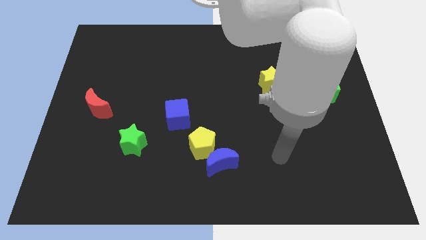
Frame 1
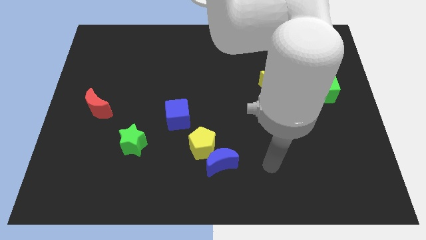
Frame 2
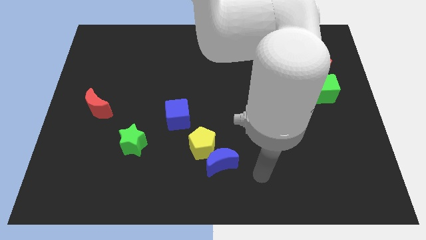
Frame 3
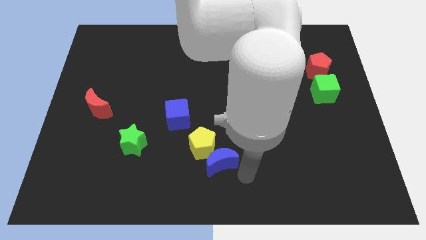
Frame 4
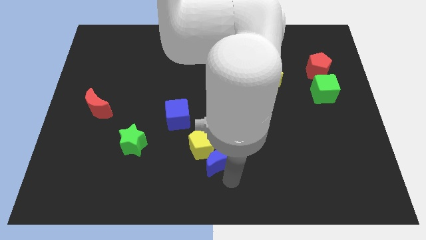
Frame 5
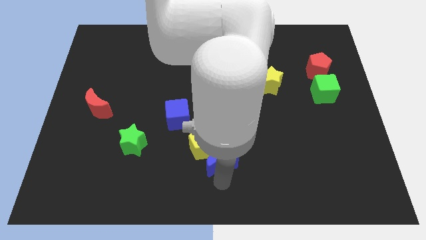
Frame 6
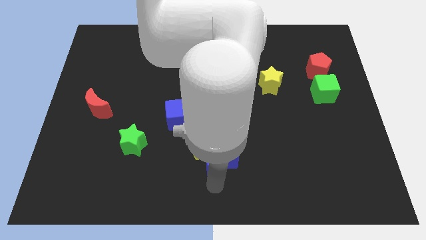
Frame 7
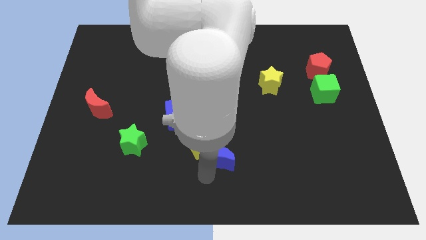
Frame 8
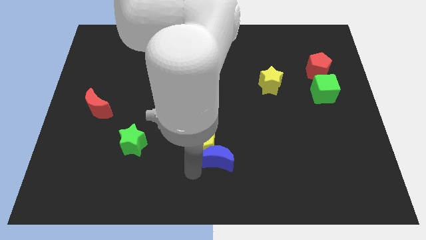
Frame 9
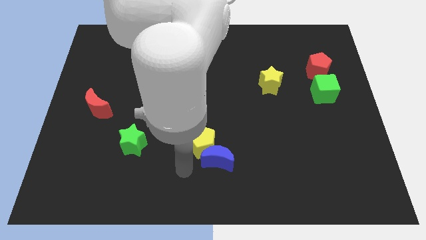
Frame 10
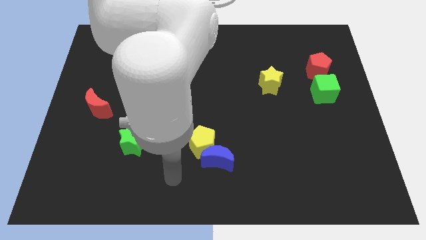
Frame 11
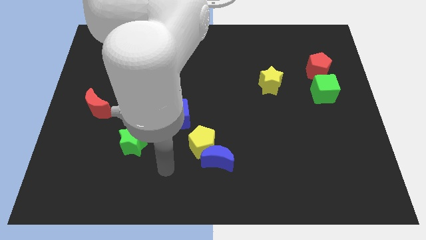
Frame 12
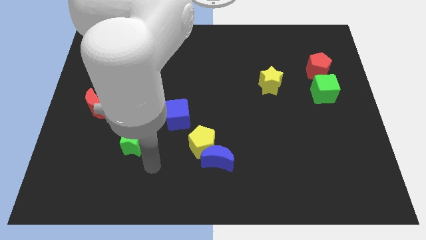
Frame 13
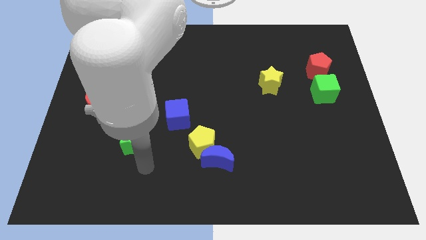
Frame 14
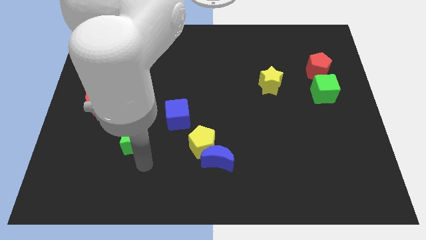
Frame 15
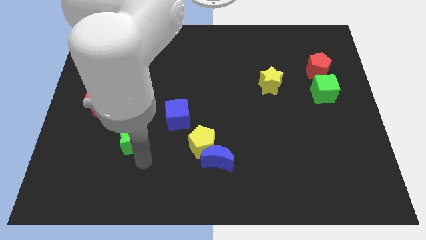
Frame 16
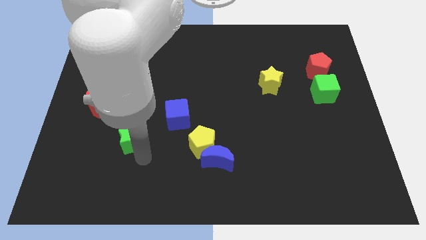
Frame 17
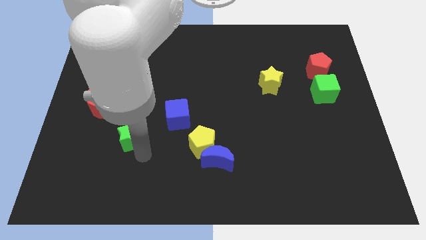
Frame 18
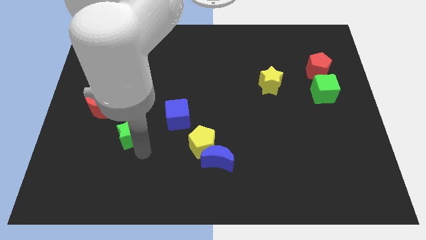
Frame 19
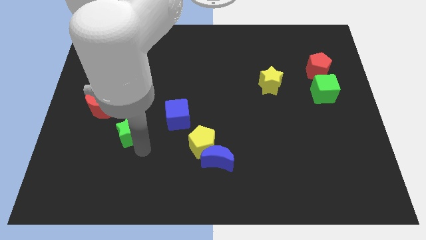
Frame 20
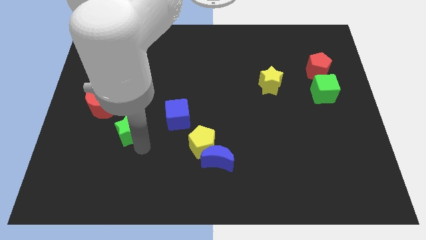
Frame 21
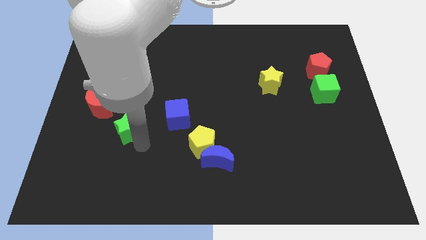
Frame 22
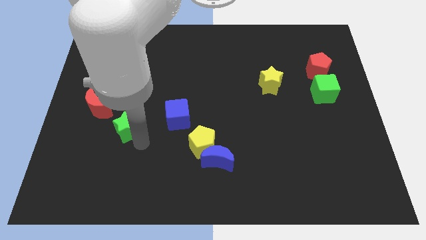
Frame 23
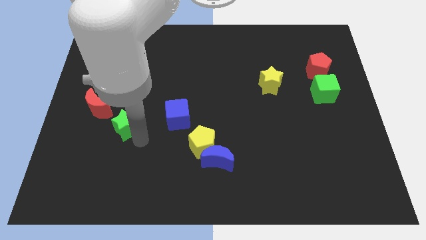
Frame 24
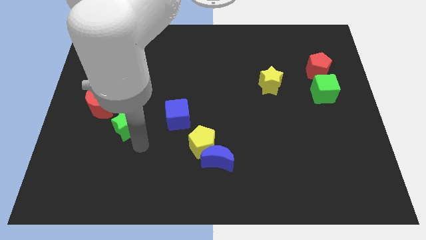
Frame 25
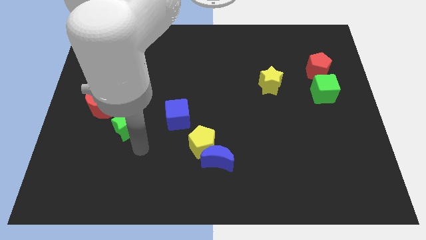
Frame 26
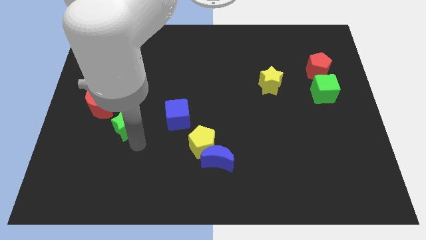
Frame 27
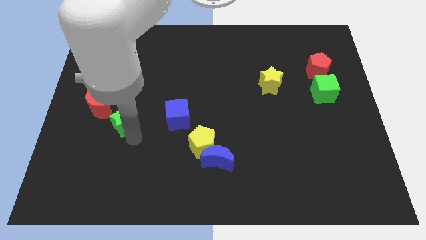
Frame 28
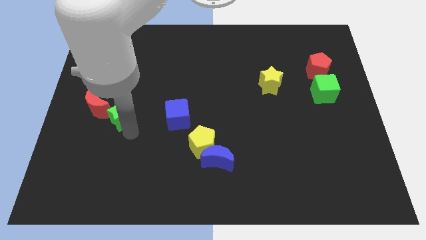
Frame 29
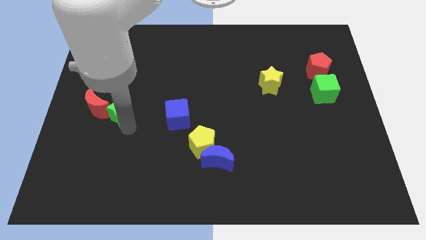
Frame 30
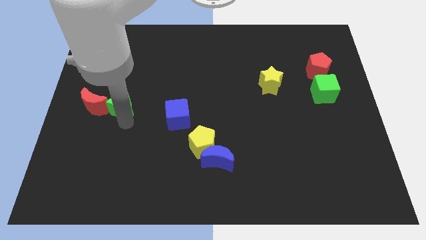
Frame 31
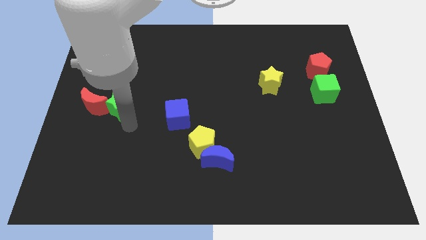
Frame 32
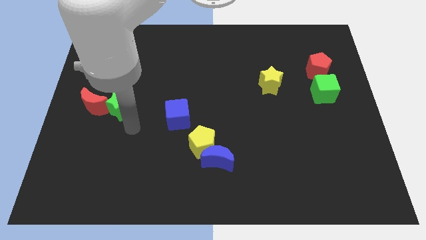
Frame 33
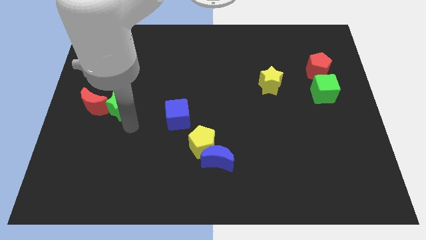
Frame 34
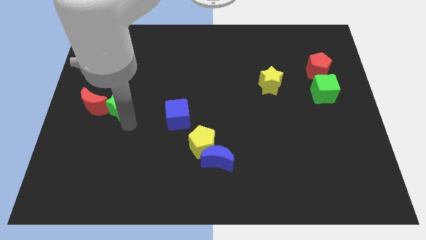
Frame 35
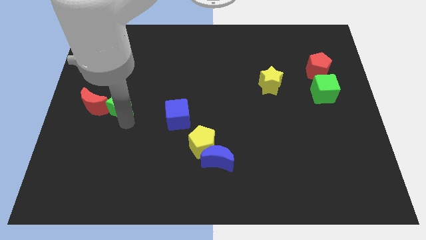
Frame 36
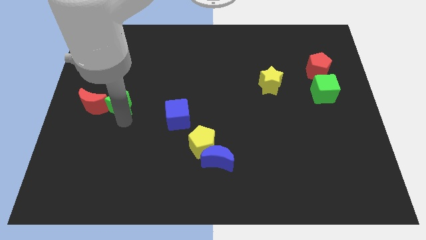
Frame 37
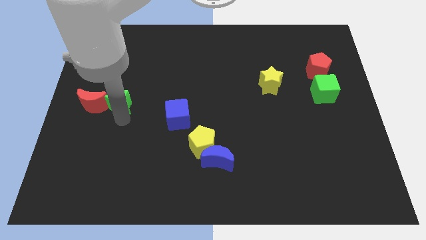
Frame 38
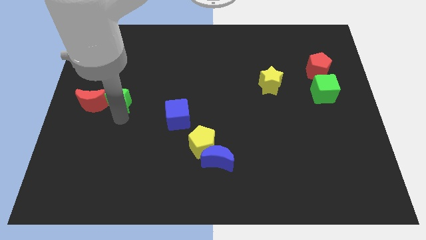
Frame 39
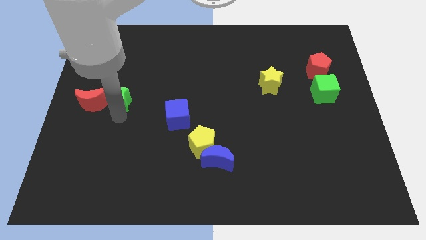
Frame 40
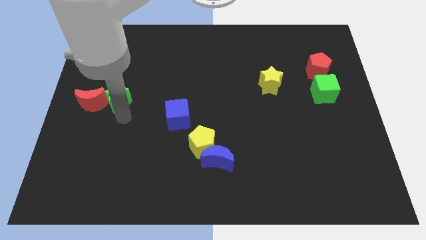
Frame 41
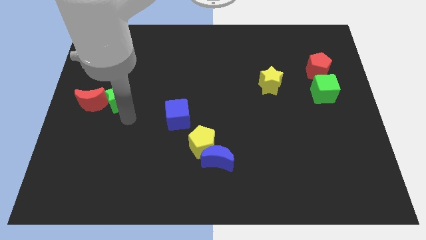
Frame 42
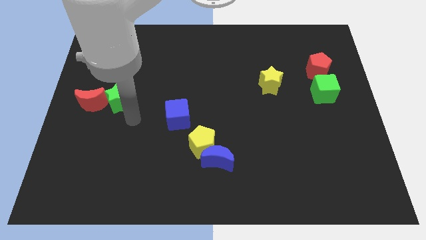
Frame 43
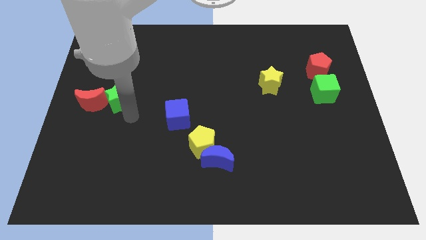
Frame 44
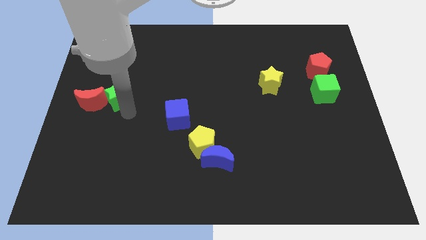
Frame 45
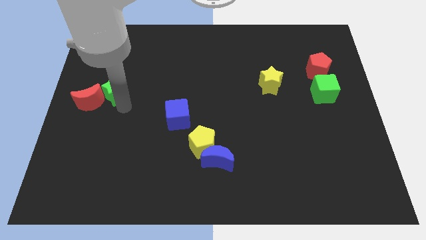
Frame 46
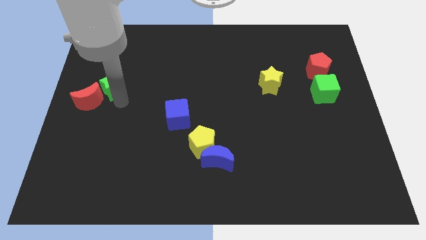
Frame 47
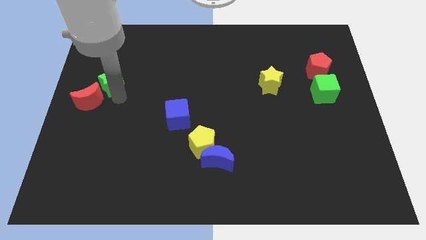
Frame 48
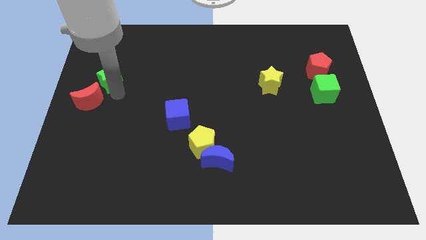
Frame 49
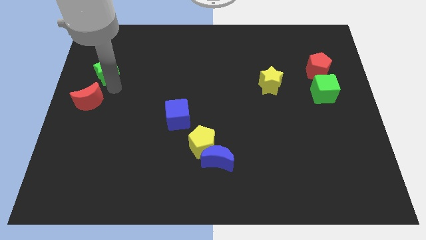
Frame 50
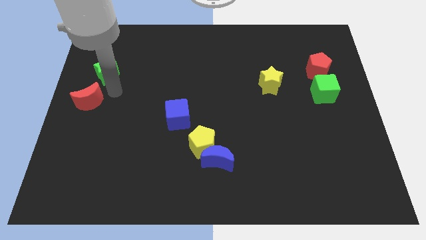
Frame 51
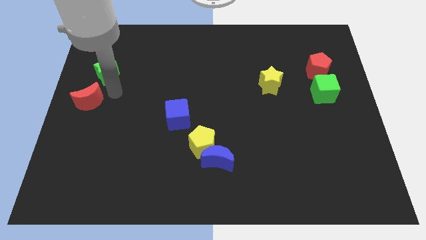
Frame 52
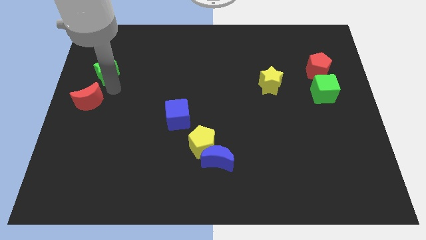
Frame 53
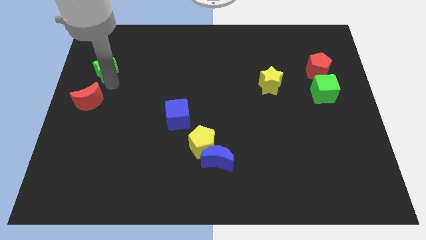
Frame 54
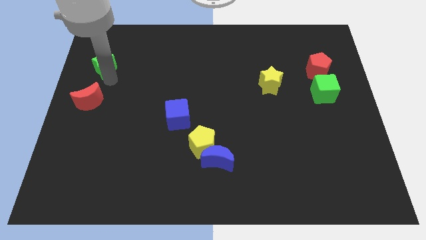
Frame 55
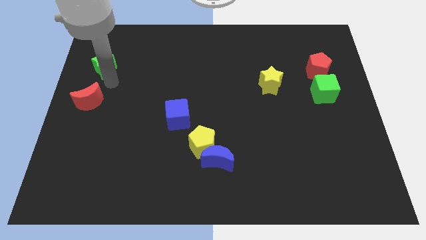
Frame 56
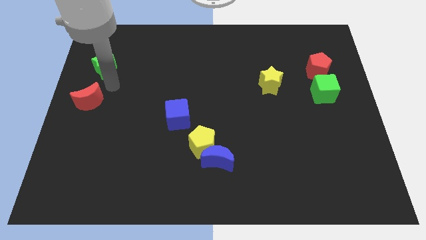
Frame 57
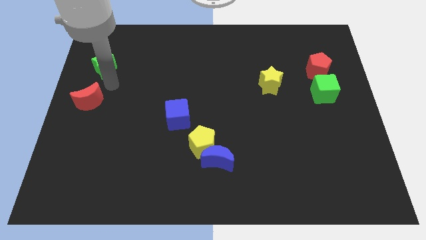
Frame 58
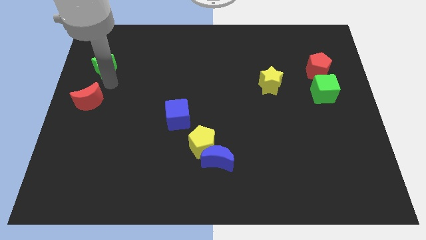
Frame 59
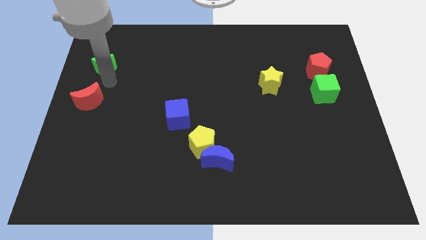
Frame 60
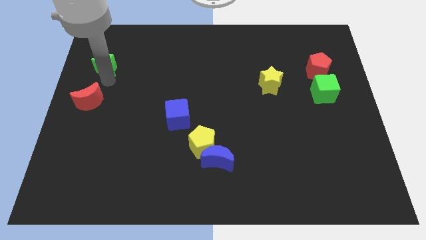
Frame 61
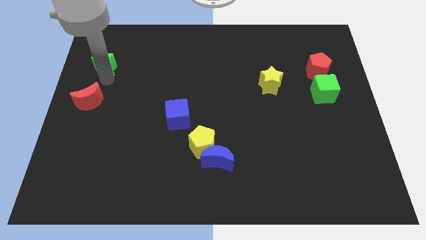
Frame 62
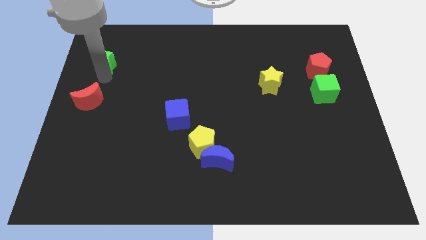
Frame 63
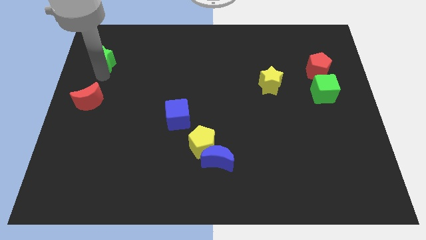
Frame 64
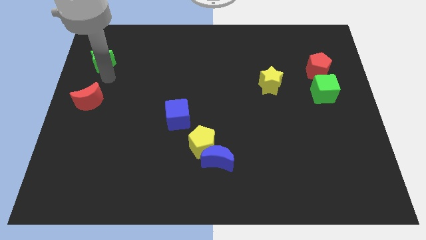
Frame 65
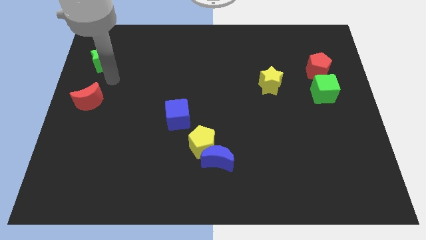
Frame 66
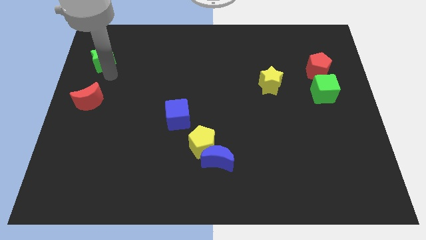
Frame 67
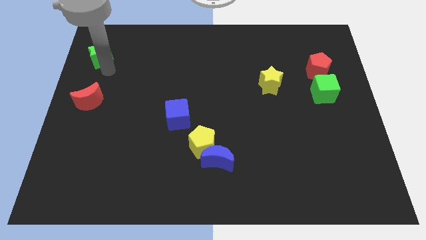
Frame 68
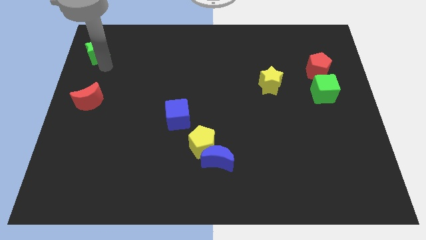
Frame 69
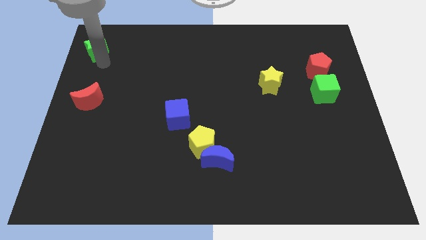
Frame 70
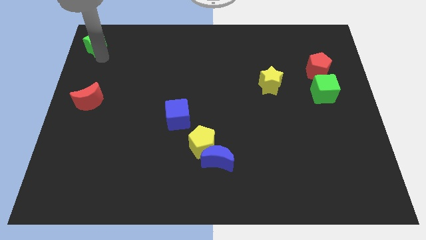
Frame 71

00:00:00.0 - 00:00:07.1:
push the green star to the top left of the board
